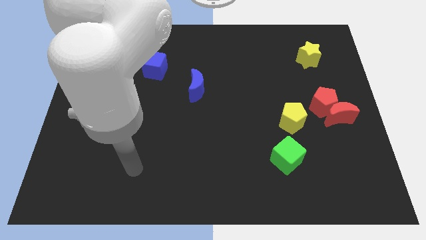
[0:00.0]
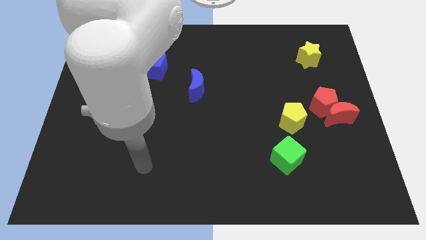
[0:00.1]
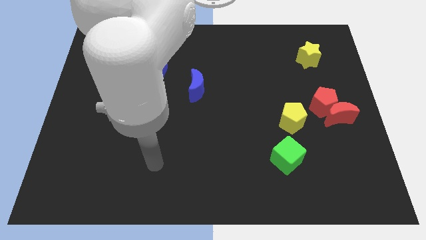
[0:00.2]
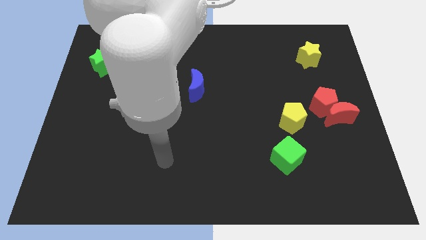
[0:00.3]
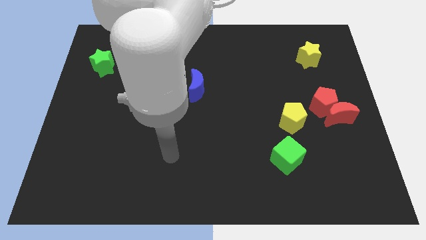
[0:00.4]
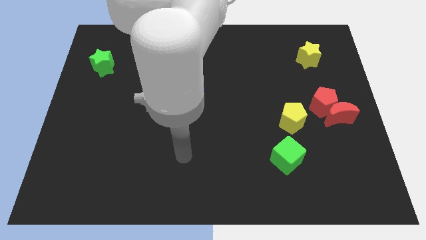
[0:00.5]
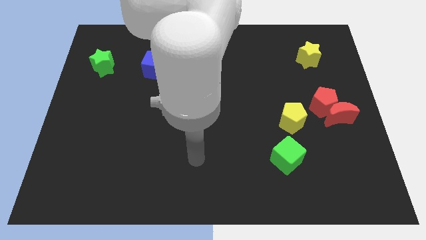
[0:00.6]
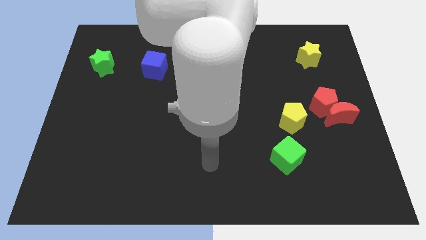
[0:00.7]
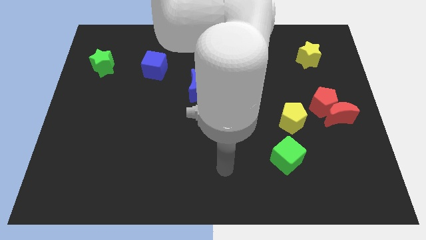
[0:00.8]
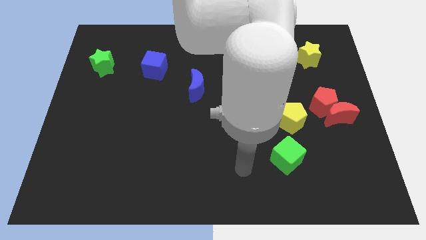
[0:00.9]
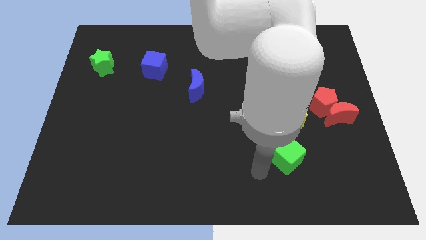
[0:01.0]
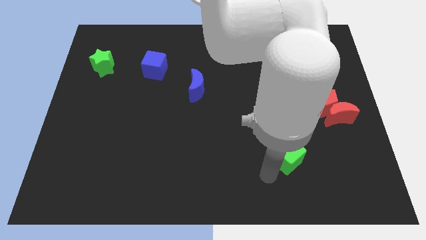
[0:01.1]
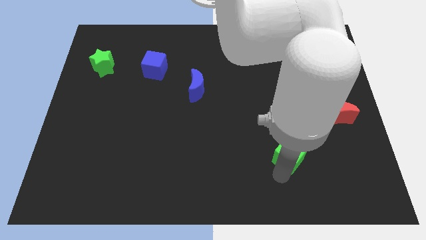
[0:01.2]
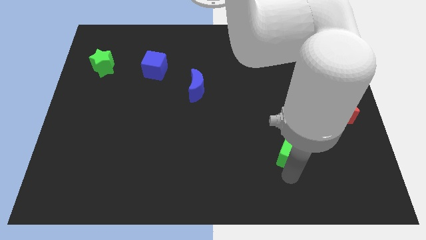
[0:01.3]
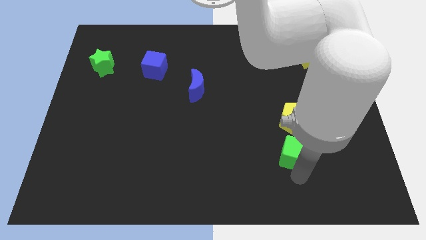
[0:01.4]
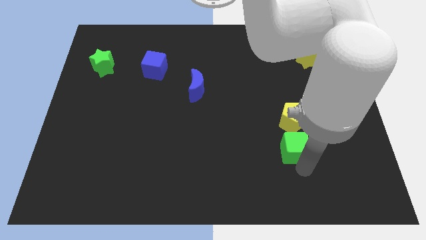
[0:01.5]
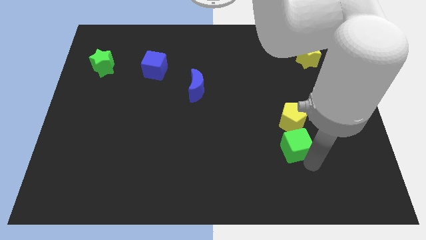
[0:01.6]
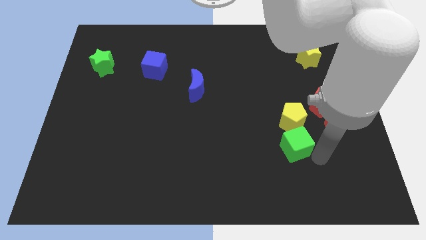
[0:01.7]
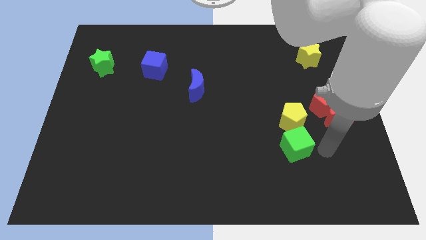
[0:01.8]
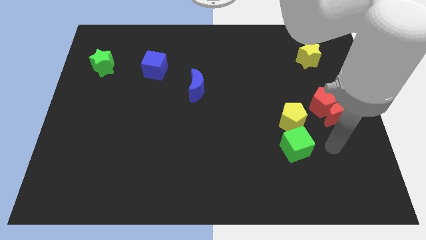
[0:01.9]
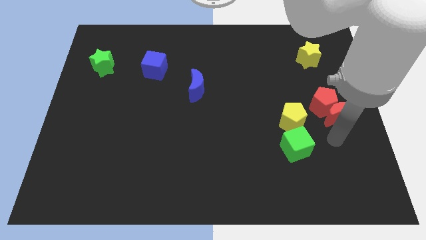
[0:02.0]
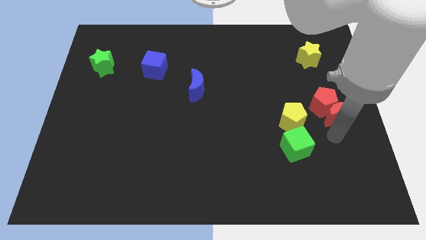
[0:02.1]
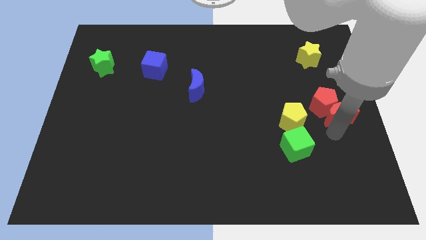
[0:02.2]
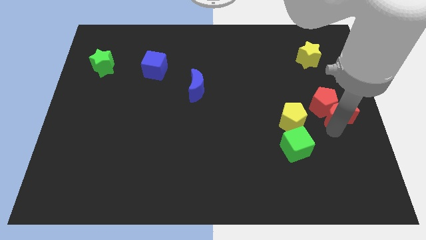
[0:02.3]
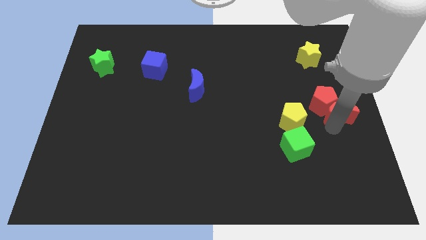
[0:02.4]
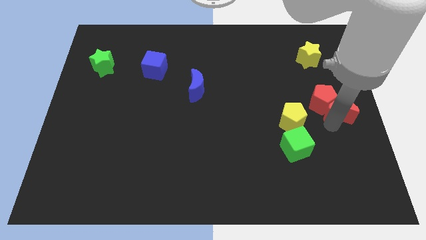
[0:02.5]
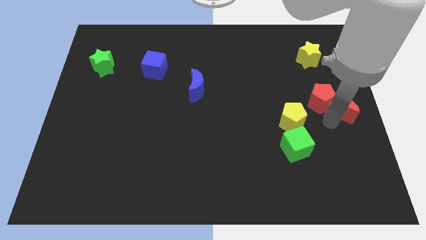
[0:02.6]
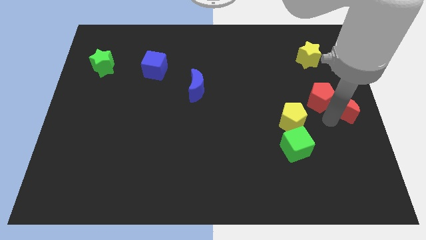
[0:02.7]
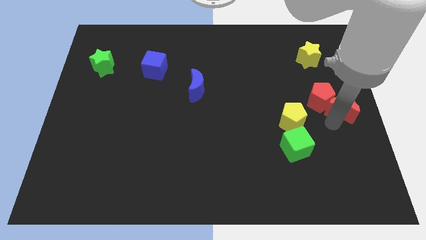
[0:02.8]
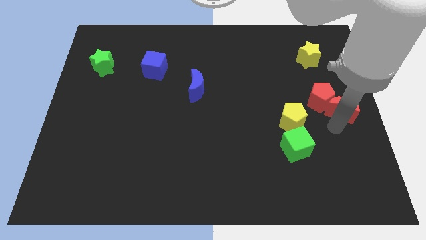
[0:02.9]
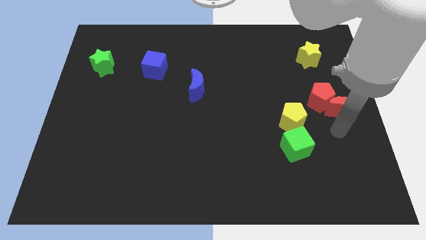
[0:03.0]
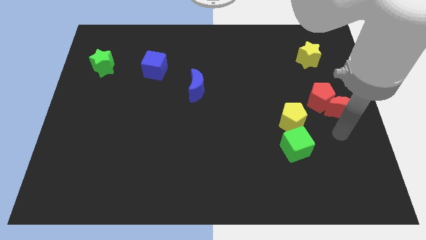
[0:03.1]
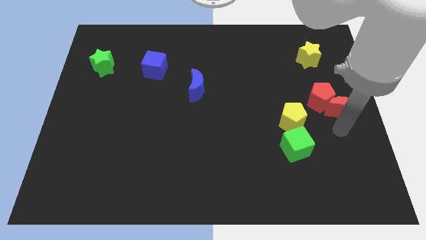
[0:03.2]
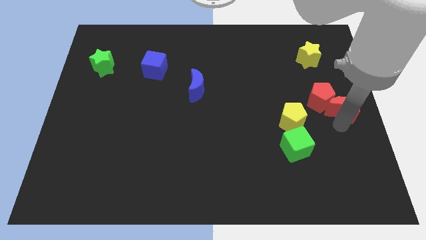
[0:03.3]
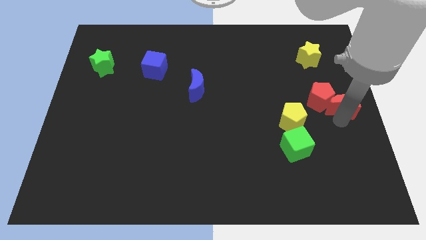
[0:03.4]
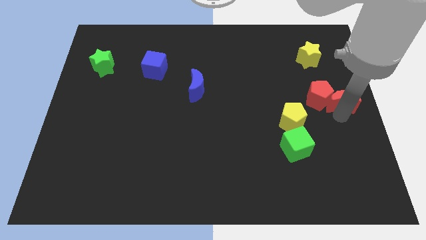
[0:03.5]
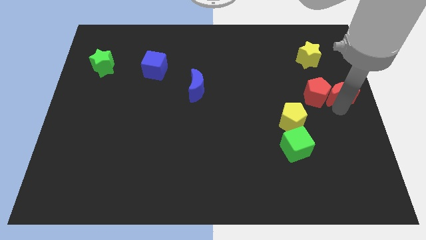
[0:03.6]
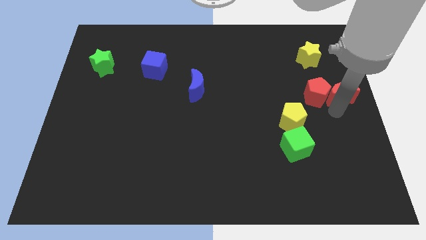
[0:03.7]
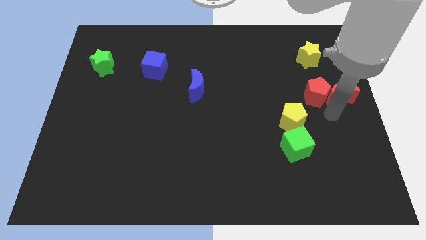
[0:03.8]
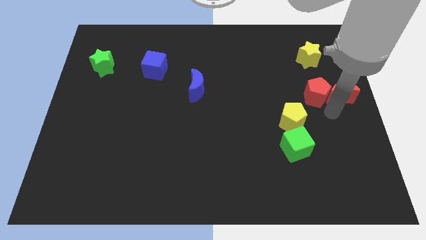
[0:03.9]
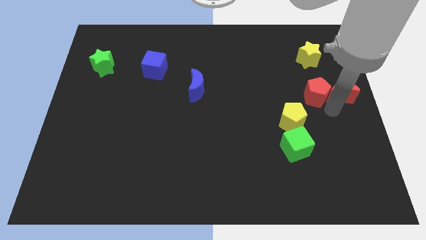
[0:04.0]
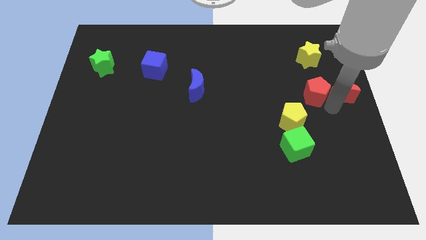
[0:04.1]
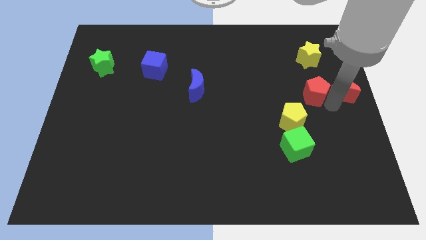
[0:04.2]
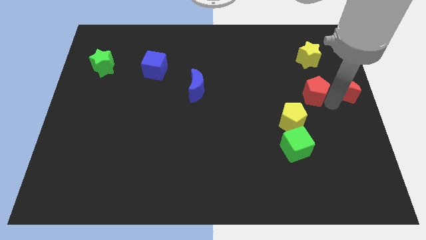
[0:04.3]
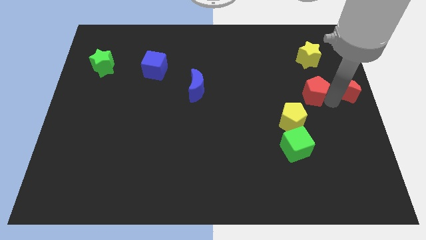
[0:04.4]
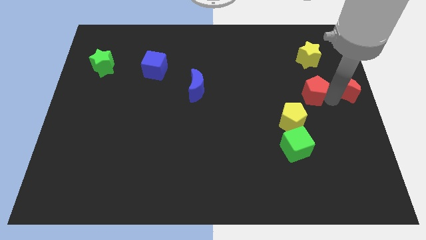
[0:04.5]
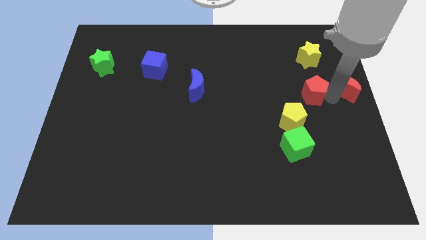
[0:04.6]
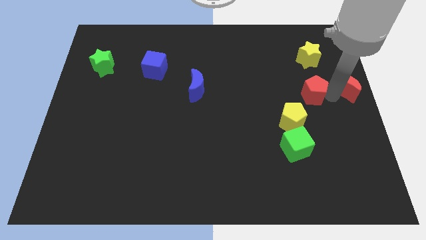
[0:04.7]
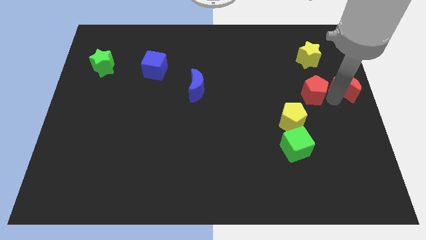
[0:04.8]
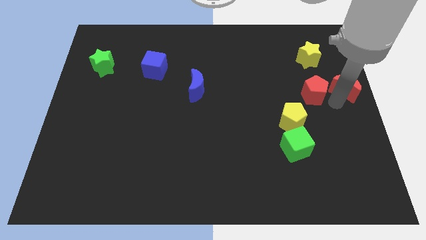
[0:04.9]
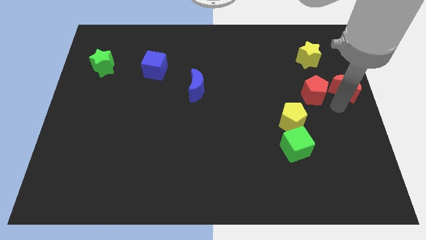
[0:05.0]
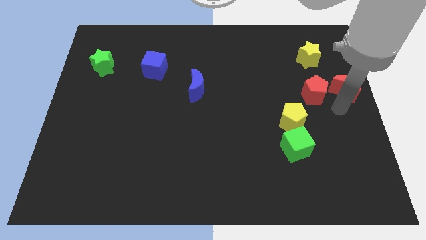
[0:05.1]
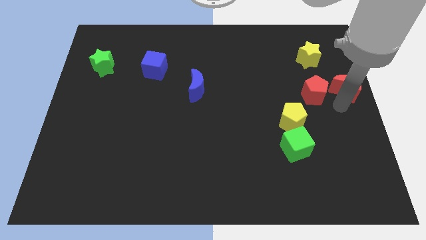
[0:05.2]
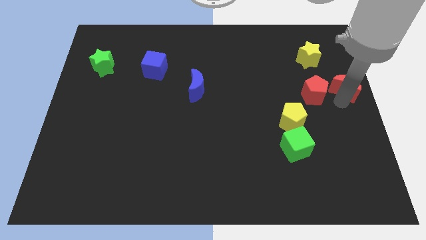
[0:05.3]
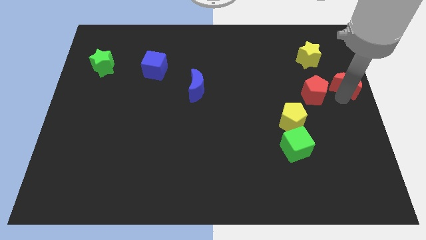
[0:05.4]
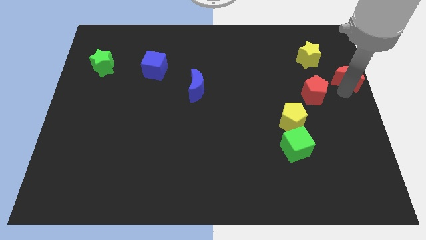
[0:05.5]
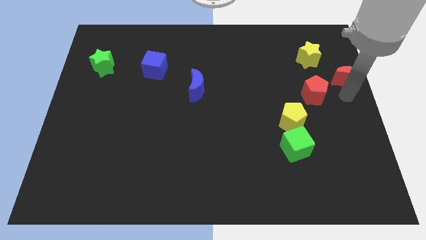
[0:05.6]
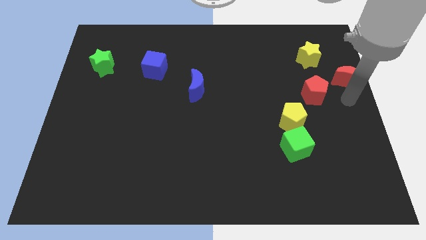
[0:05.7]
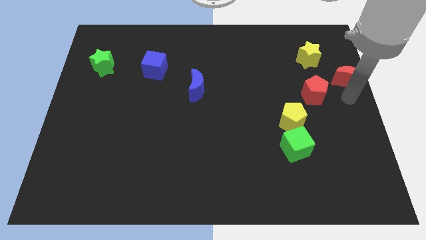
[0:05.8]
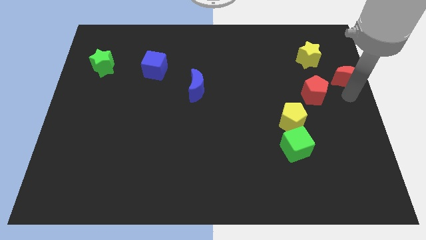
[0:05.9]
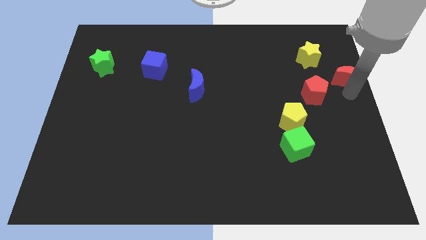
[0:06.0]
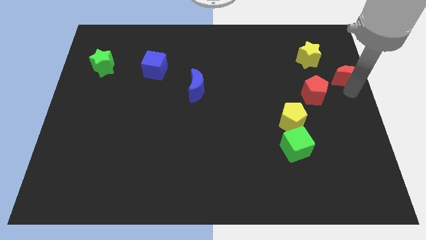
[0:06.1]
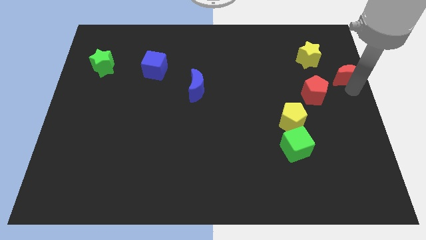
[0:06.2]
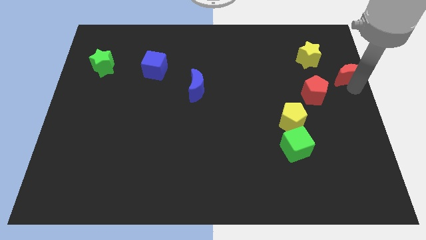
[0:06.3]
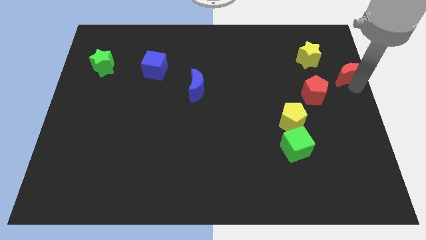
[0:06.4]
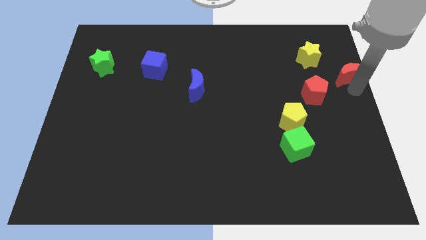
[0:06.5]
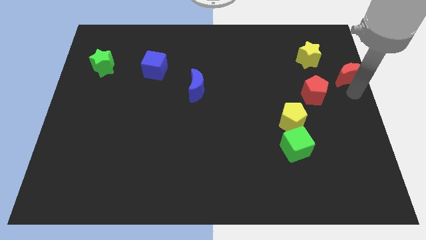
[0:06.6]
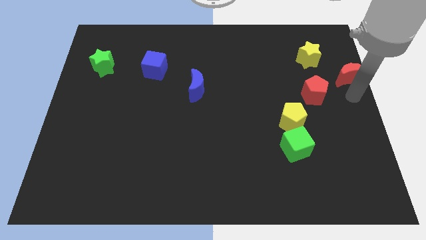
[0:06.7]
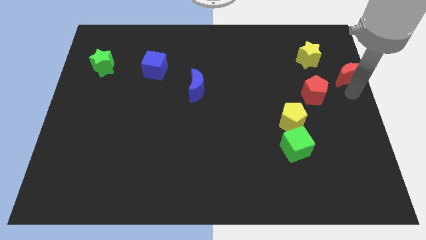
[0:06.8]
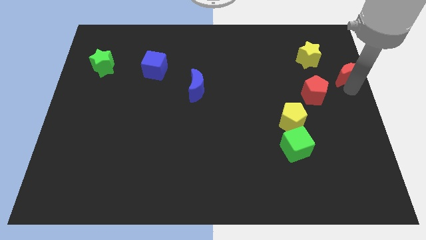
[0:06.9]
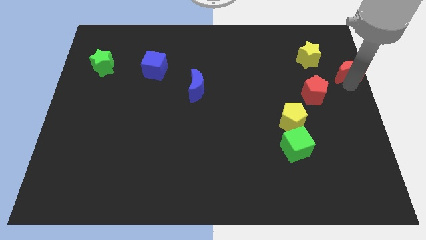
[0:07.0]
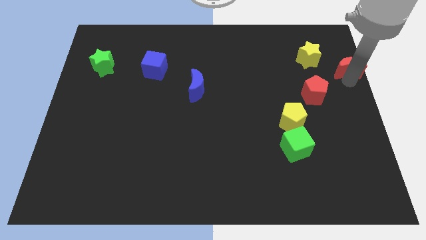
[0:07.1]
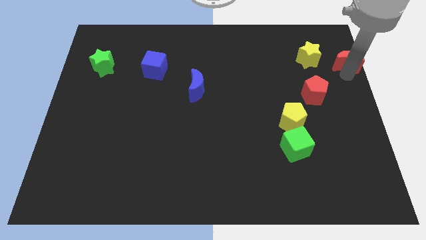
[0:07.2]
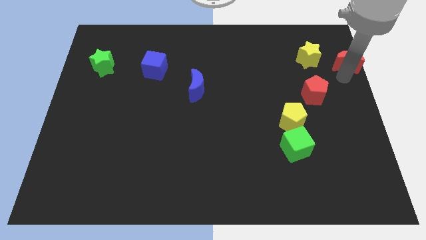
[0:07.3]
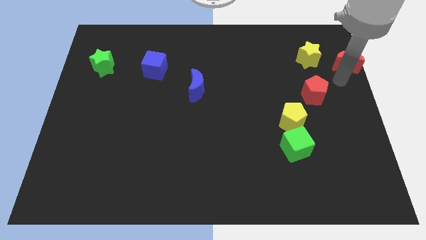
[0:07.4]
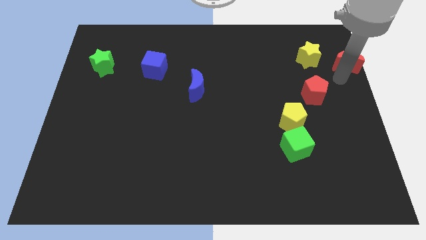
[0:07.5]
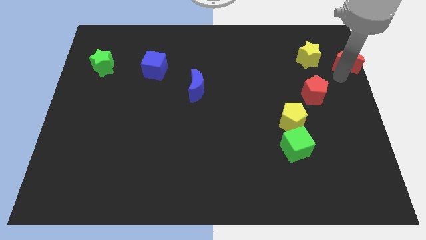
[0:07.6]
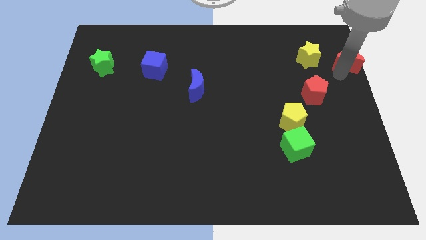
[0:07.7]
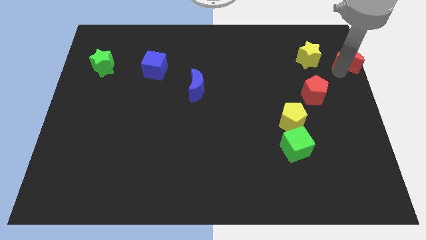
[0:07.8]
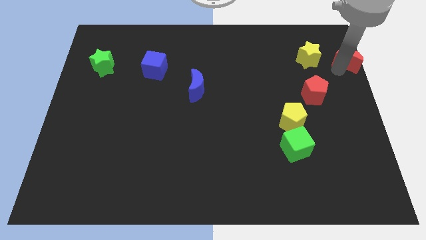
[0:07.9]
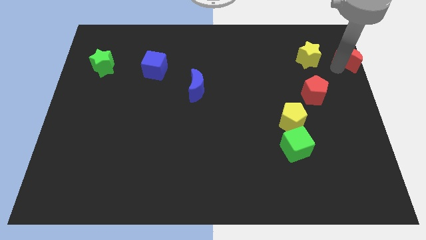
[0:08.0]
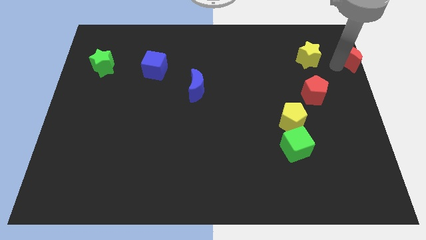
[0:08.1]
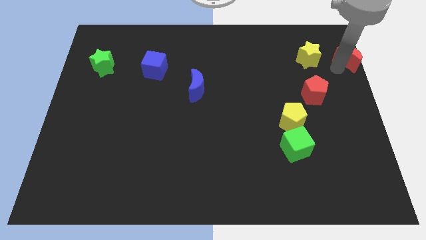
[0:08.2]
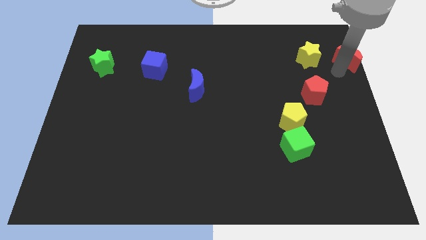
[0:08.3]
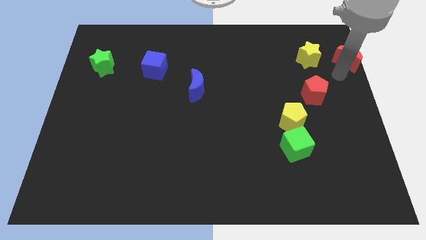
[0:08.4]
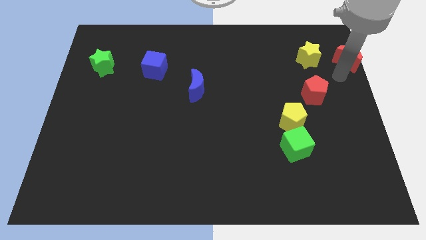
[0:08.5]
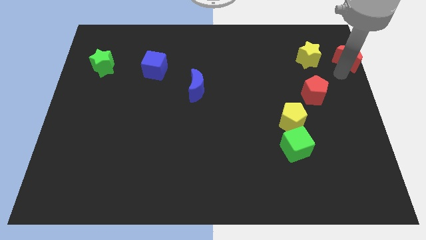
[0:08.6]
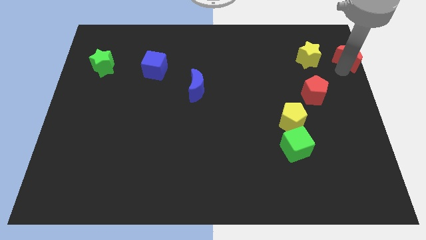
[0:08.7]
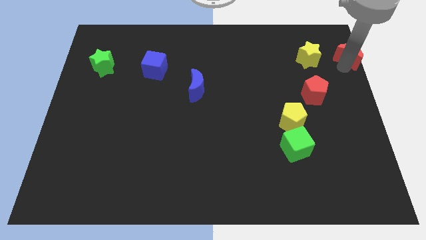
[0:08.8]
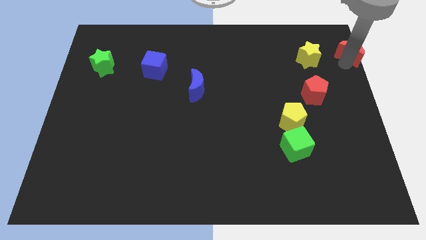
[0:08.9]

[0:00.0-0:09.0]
move the red moon to the top right
